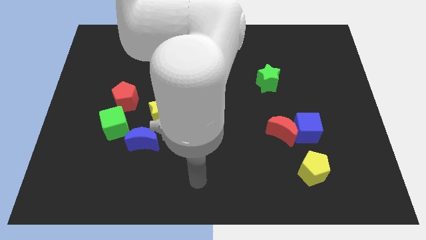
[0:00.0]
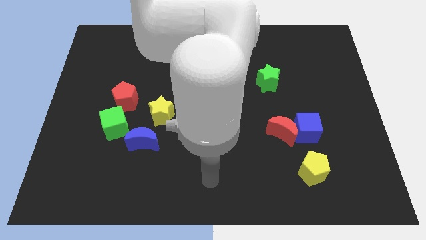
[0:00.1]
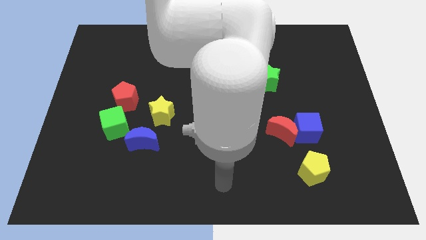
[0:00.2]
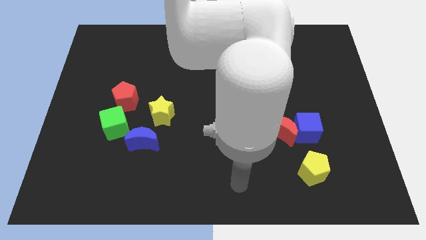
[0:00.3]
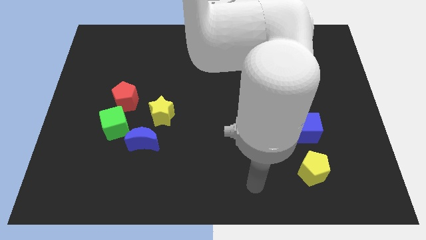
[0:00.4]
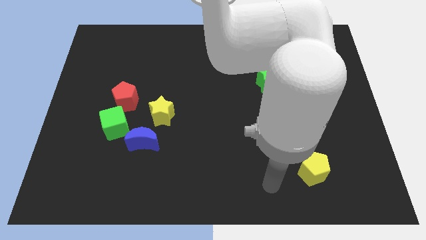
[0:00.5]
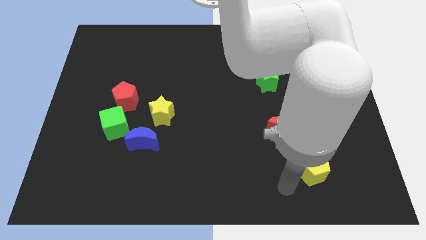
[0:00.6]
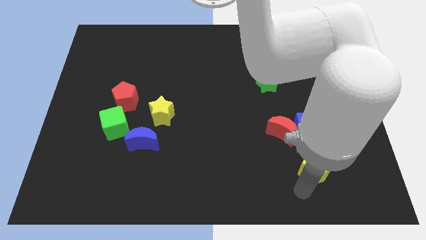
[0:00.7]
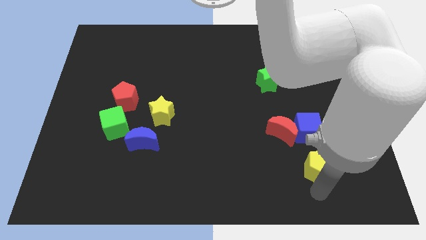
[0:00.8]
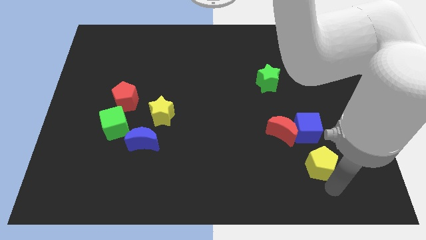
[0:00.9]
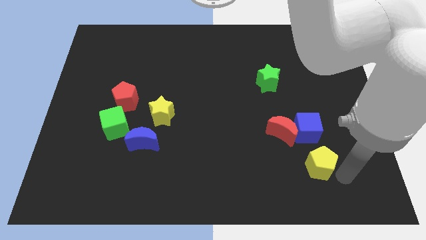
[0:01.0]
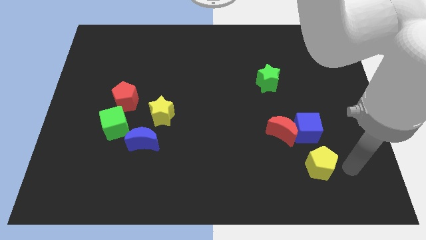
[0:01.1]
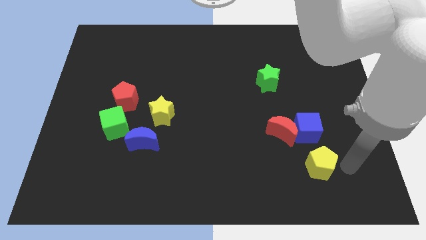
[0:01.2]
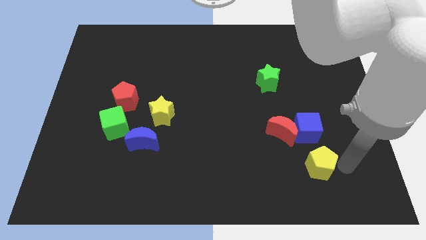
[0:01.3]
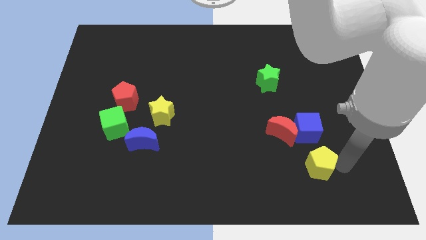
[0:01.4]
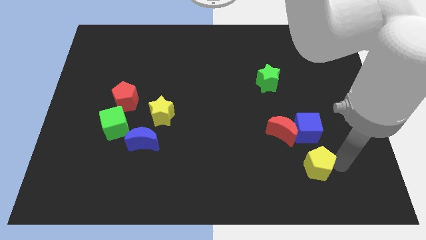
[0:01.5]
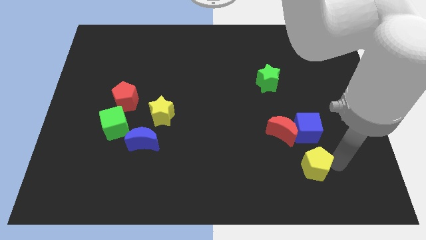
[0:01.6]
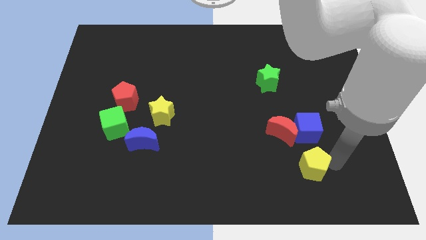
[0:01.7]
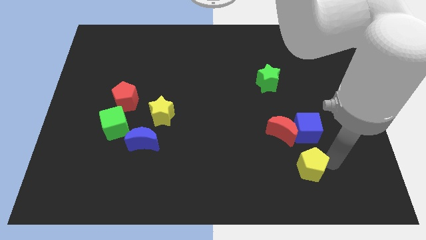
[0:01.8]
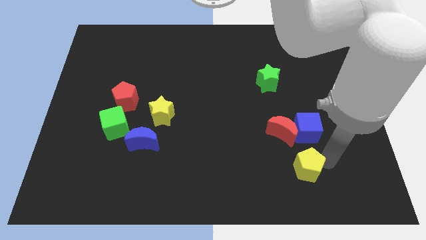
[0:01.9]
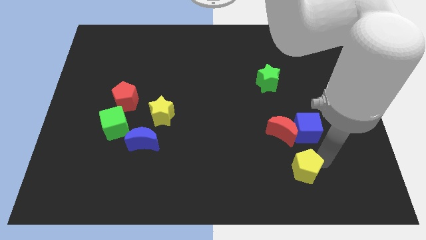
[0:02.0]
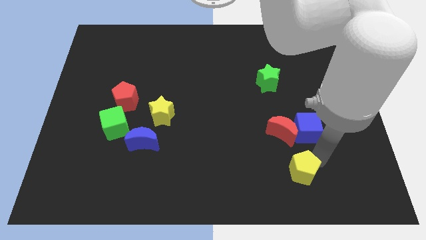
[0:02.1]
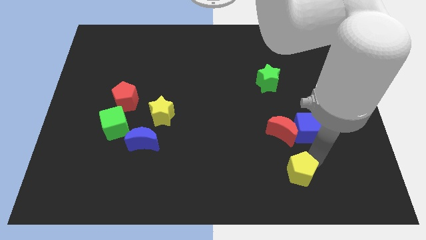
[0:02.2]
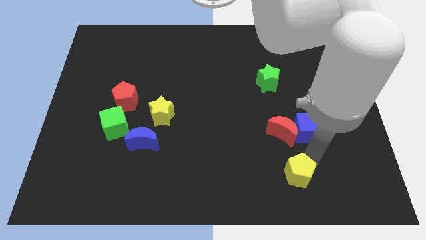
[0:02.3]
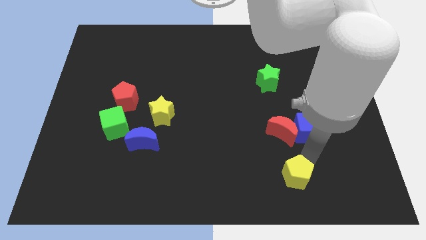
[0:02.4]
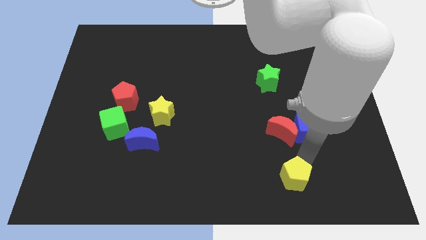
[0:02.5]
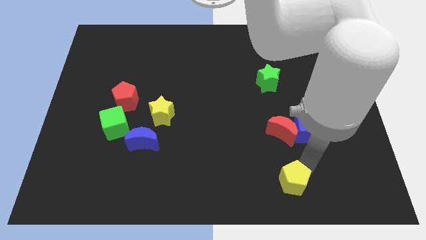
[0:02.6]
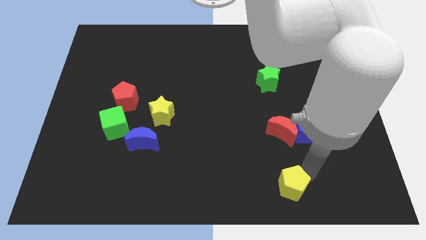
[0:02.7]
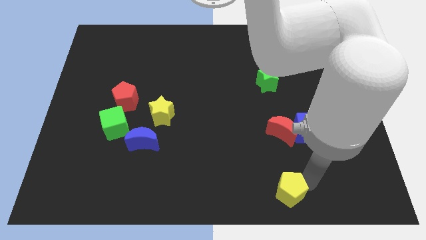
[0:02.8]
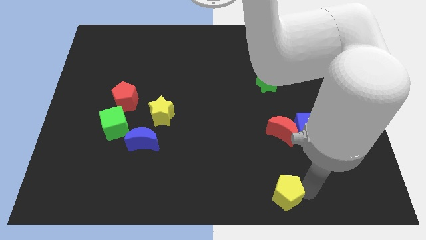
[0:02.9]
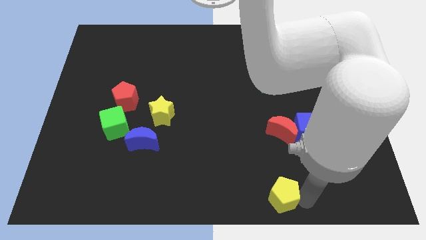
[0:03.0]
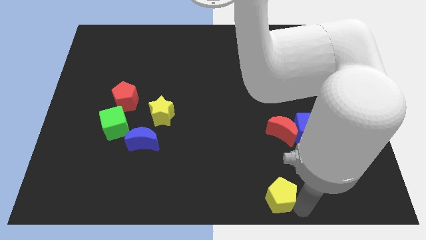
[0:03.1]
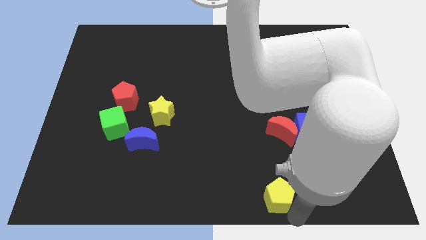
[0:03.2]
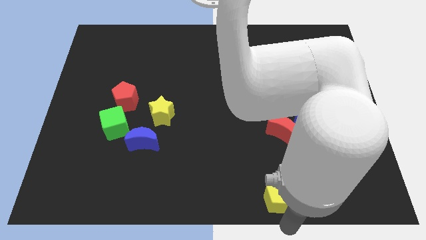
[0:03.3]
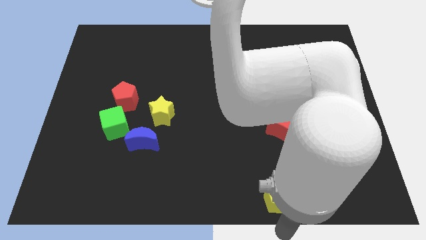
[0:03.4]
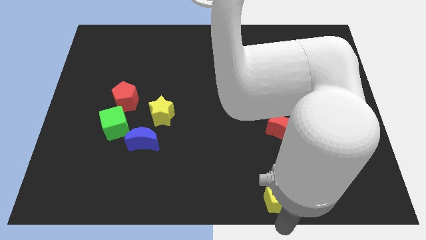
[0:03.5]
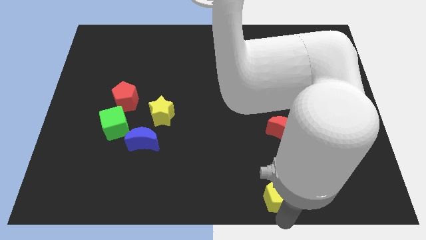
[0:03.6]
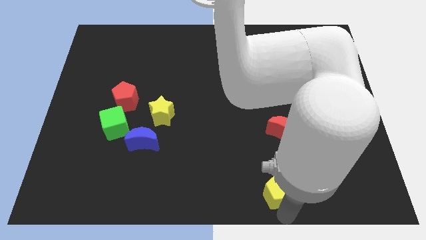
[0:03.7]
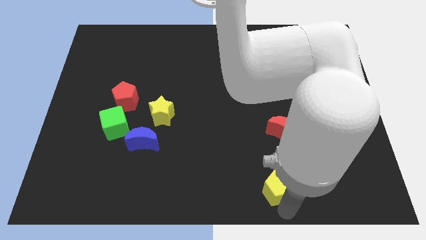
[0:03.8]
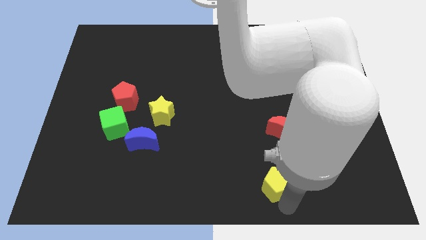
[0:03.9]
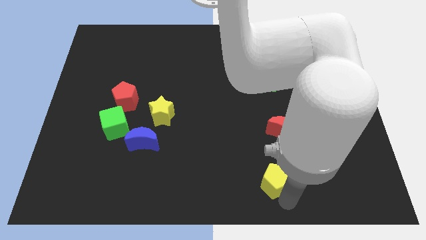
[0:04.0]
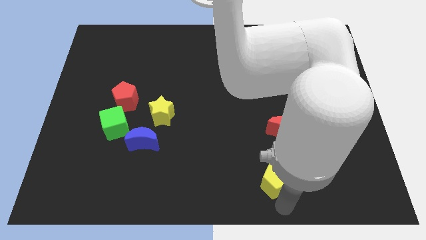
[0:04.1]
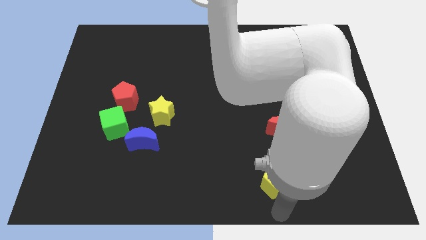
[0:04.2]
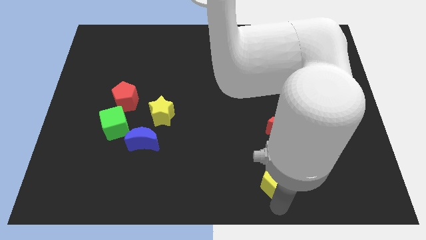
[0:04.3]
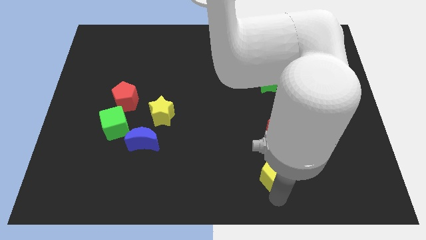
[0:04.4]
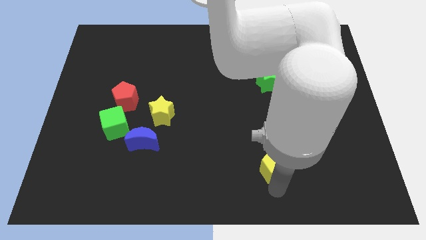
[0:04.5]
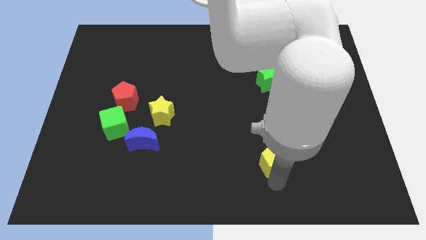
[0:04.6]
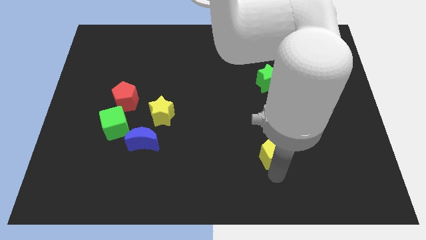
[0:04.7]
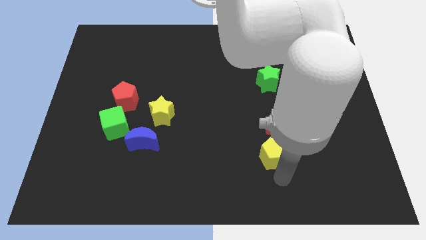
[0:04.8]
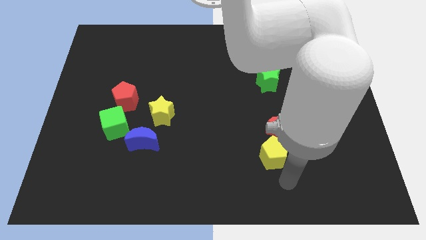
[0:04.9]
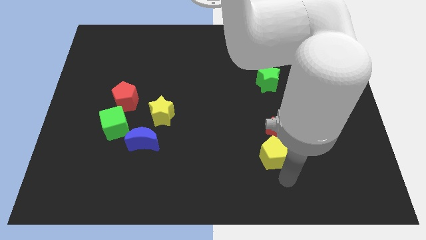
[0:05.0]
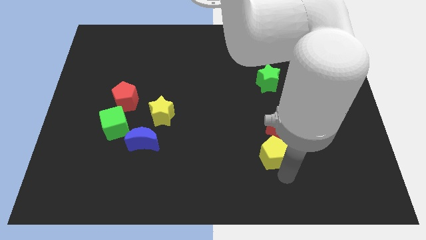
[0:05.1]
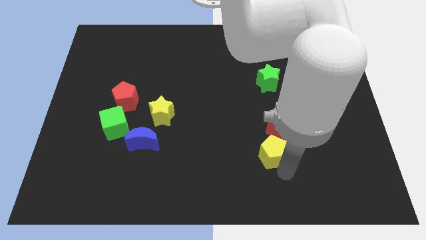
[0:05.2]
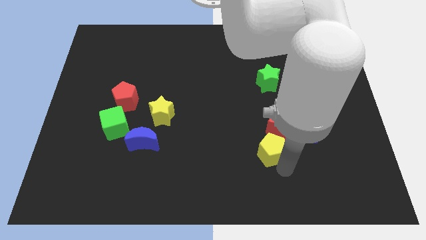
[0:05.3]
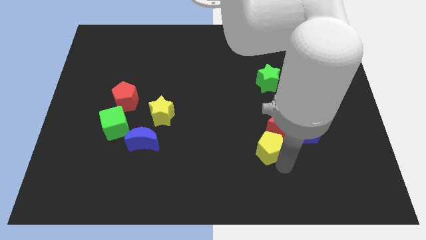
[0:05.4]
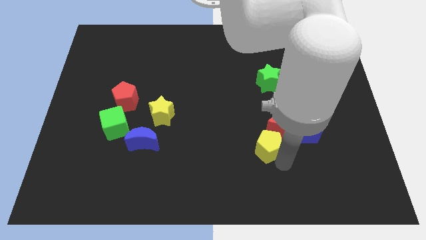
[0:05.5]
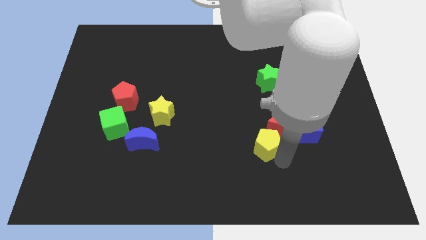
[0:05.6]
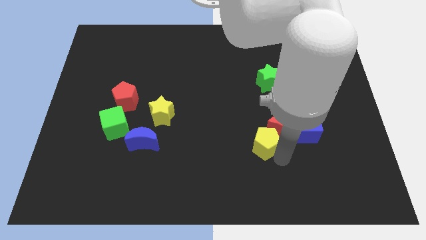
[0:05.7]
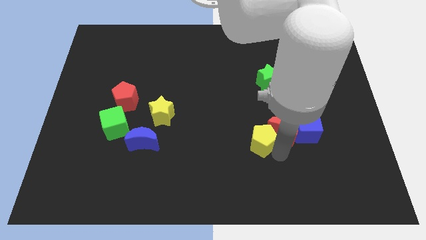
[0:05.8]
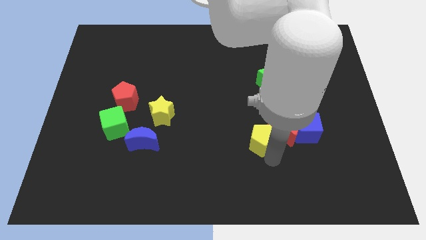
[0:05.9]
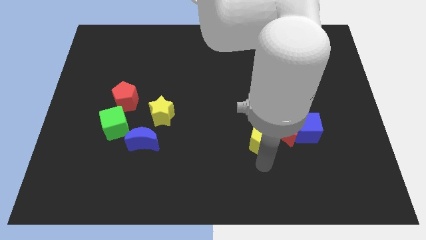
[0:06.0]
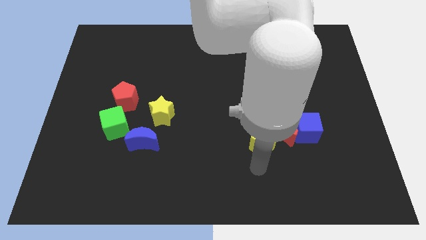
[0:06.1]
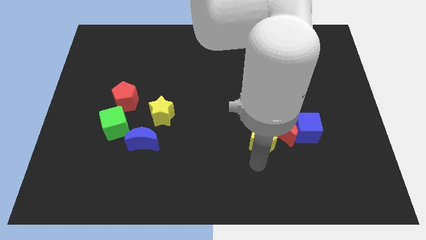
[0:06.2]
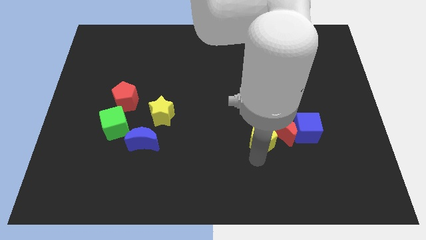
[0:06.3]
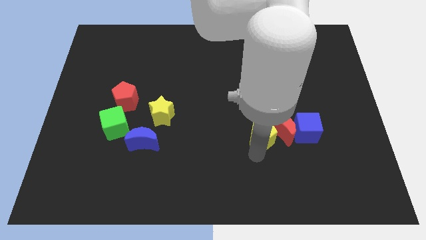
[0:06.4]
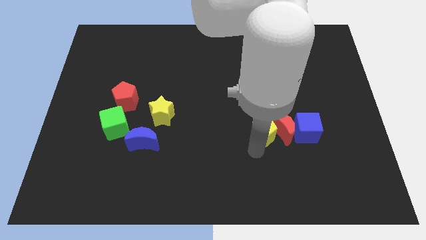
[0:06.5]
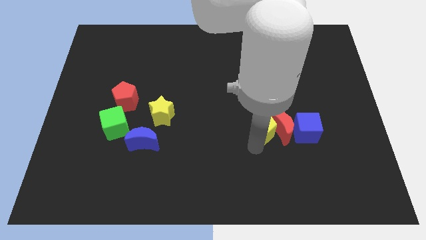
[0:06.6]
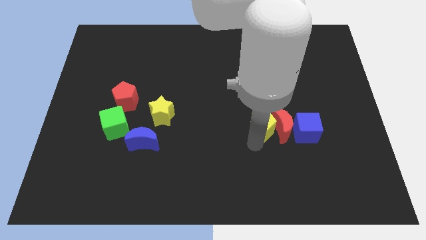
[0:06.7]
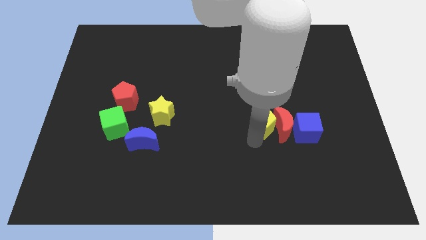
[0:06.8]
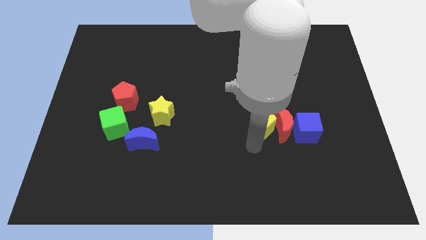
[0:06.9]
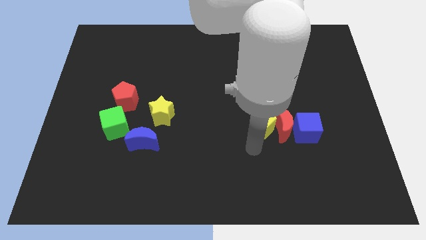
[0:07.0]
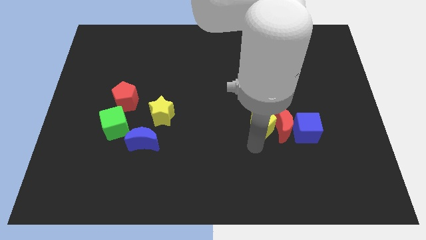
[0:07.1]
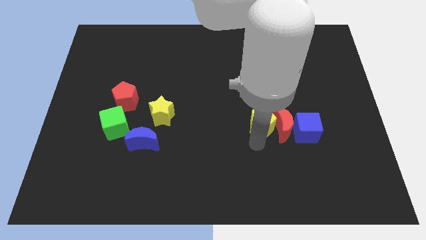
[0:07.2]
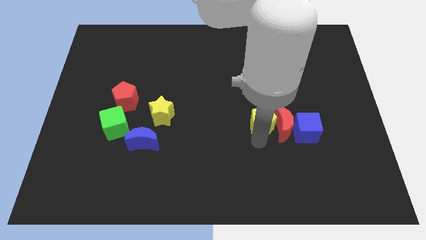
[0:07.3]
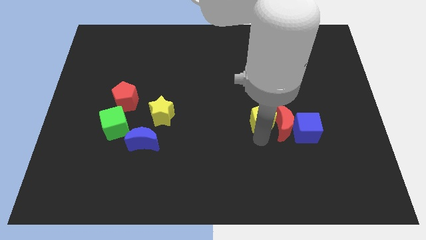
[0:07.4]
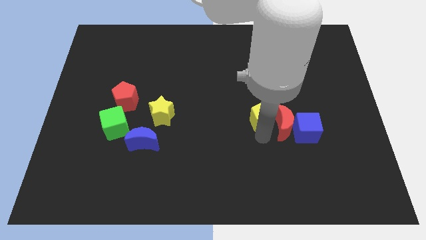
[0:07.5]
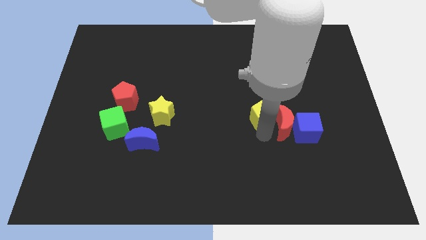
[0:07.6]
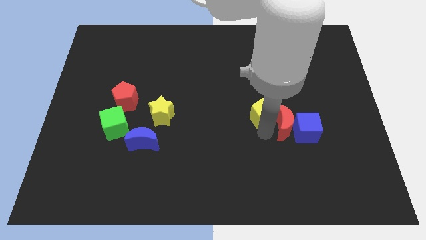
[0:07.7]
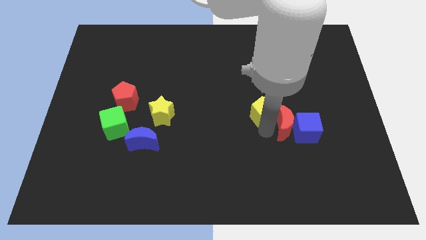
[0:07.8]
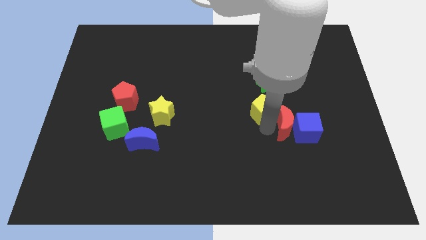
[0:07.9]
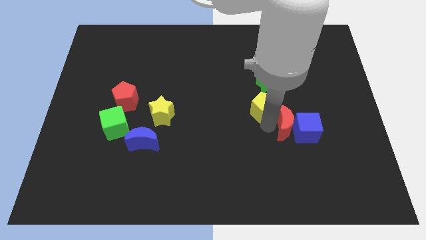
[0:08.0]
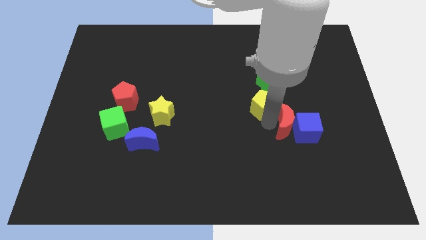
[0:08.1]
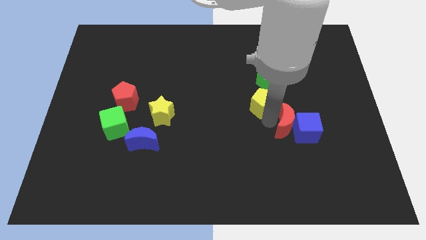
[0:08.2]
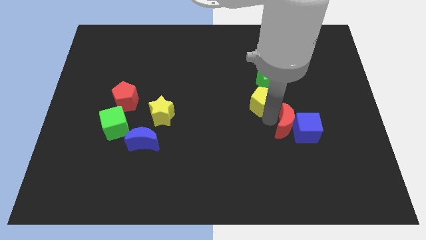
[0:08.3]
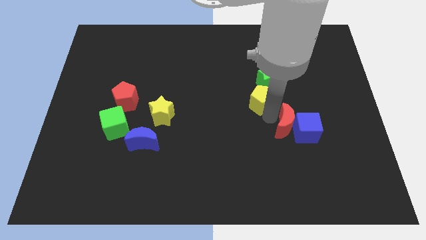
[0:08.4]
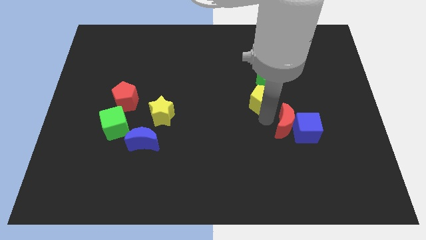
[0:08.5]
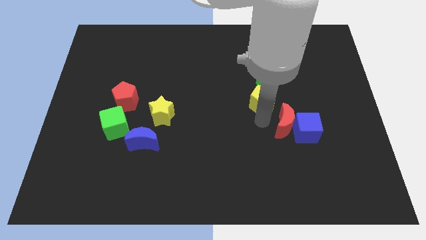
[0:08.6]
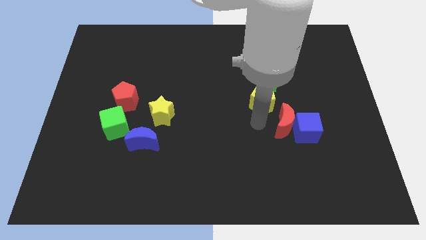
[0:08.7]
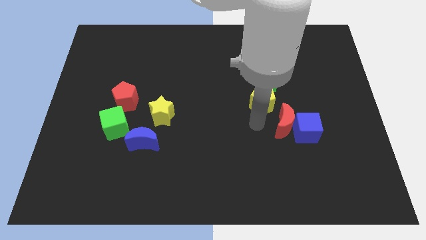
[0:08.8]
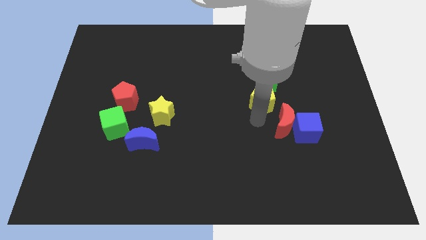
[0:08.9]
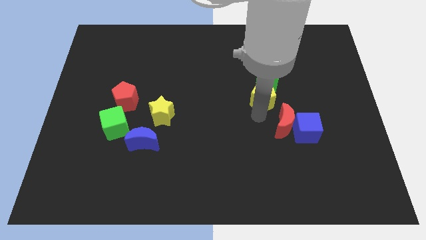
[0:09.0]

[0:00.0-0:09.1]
move the yellow pentagon towards the green star
